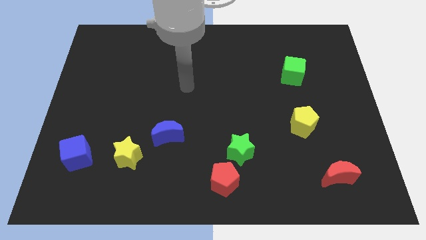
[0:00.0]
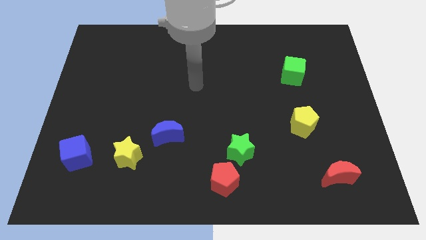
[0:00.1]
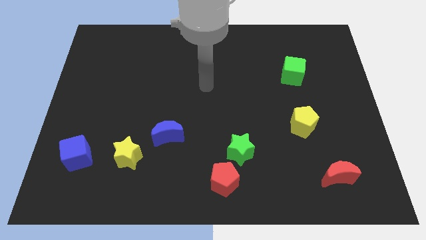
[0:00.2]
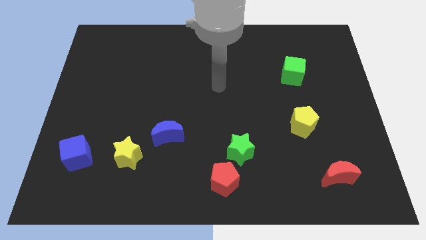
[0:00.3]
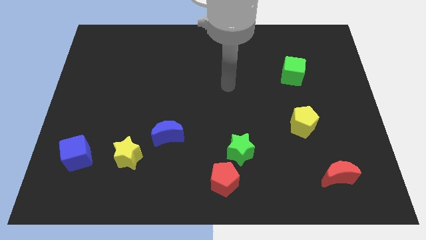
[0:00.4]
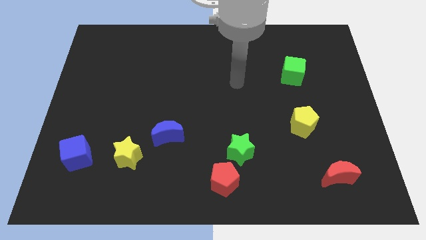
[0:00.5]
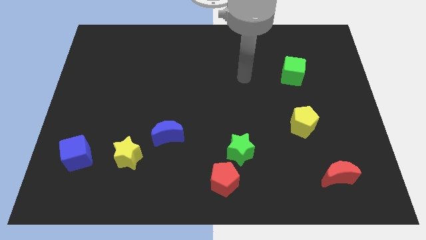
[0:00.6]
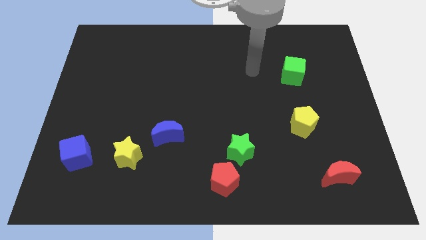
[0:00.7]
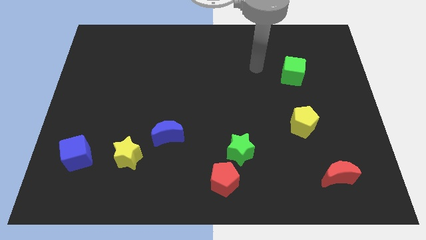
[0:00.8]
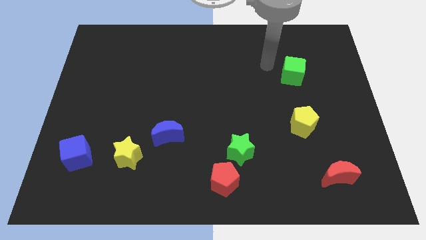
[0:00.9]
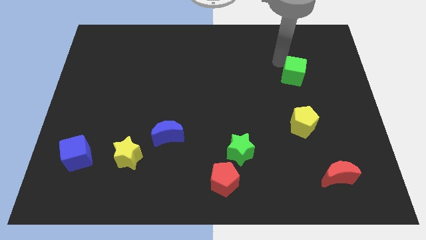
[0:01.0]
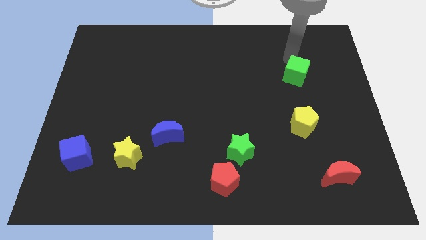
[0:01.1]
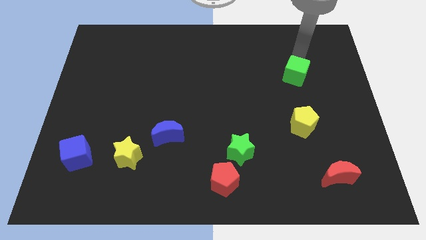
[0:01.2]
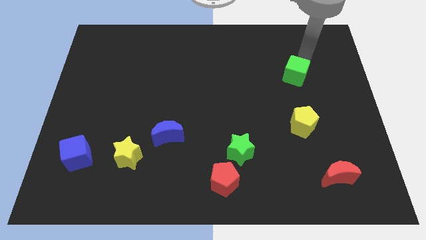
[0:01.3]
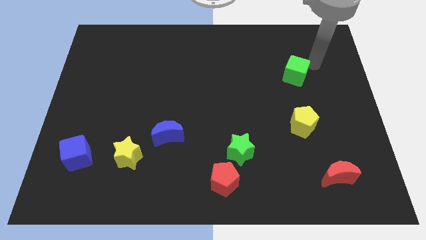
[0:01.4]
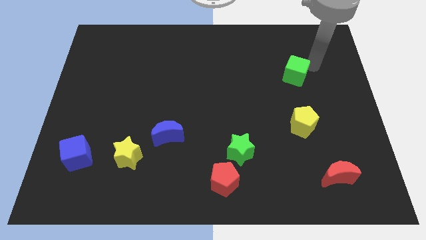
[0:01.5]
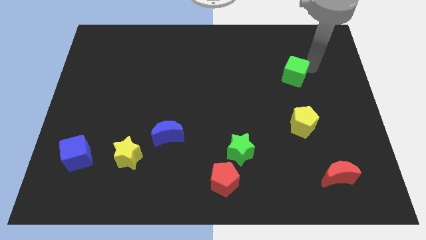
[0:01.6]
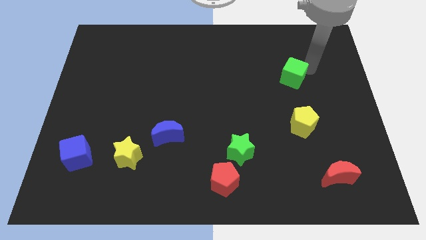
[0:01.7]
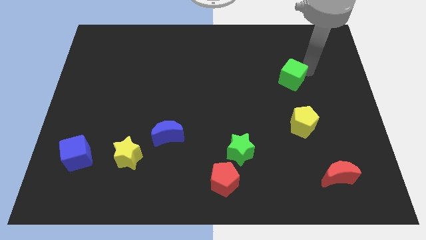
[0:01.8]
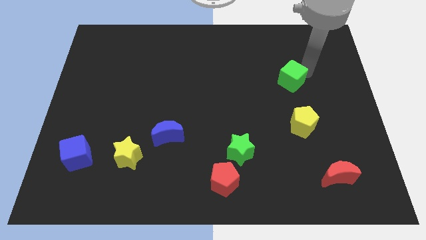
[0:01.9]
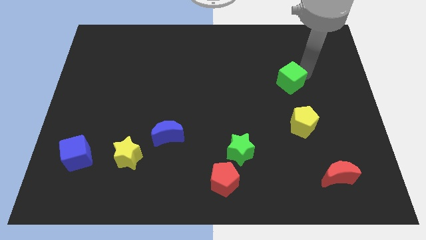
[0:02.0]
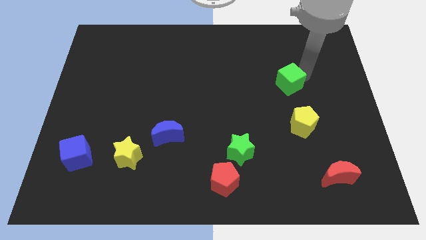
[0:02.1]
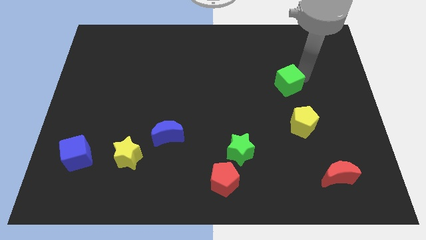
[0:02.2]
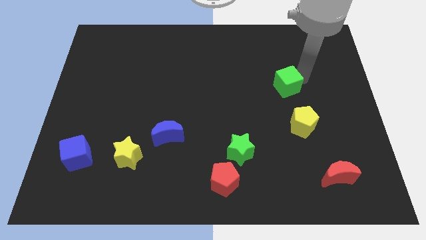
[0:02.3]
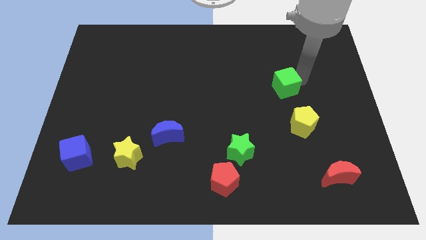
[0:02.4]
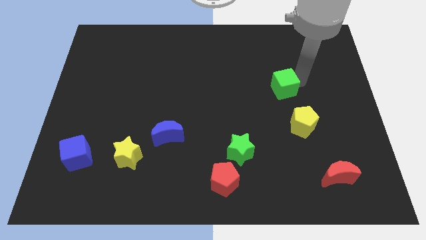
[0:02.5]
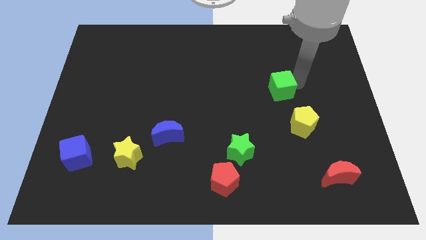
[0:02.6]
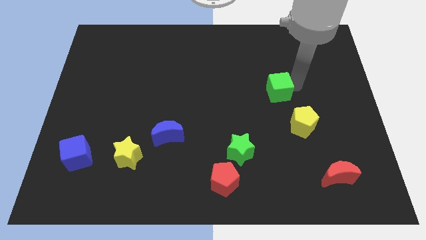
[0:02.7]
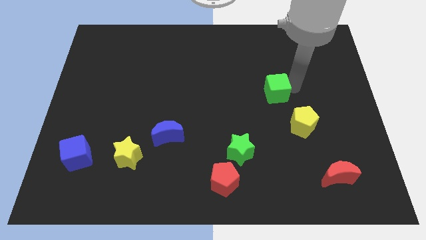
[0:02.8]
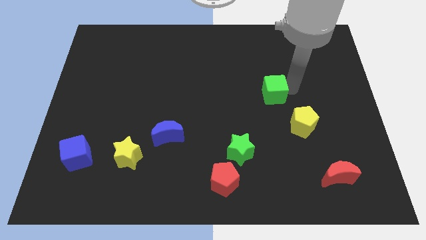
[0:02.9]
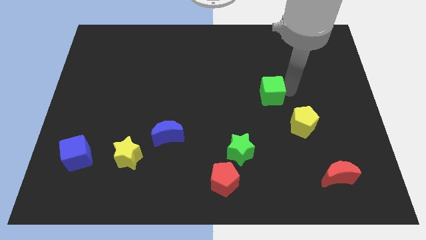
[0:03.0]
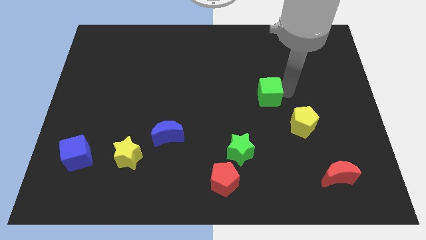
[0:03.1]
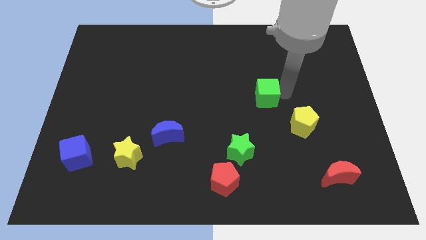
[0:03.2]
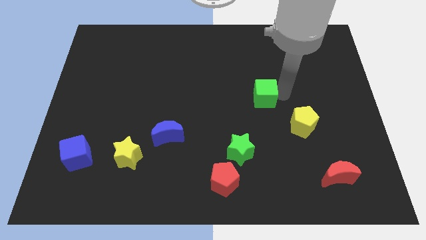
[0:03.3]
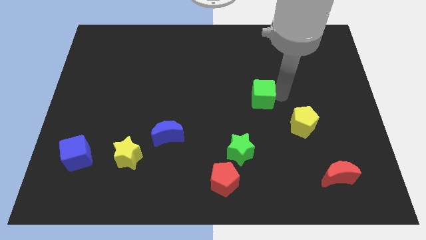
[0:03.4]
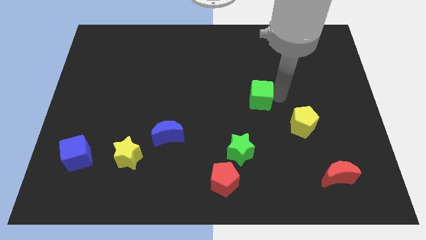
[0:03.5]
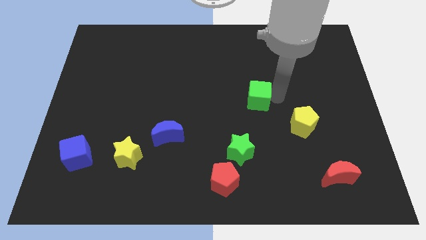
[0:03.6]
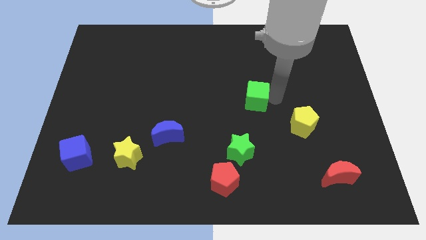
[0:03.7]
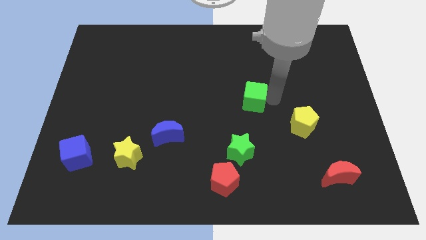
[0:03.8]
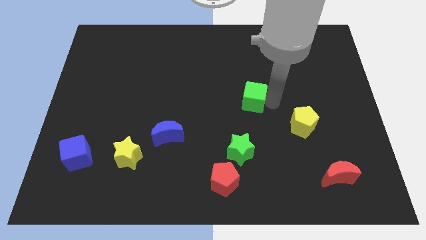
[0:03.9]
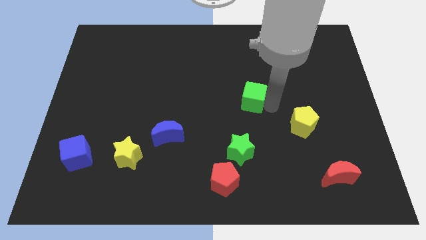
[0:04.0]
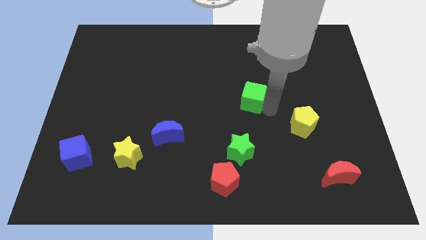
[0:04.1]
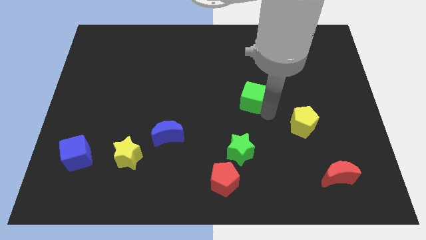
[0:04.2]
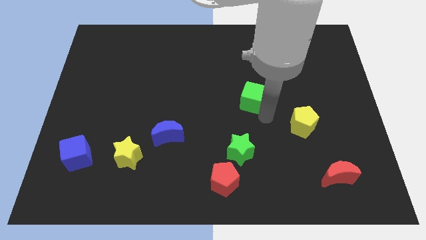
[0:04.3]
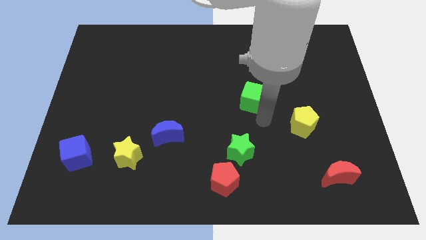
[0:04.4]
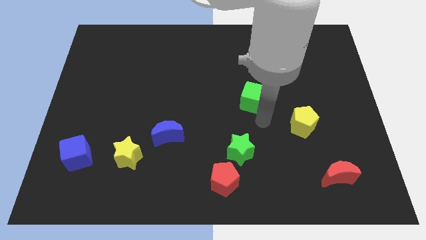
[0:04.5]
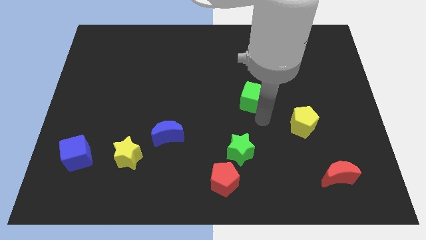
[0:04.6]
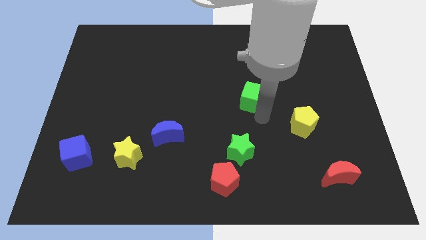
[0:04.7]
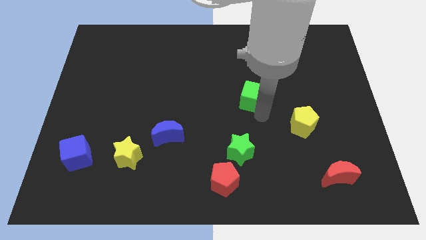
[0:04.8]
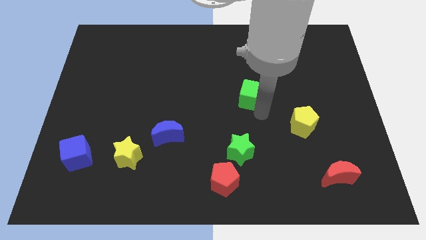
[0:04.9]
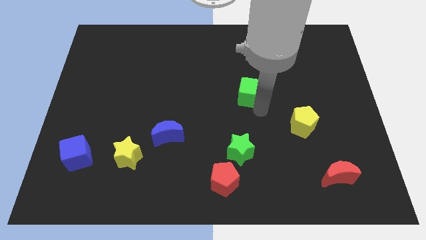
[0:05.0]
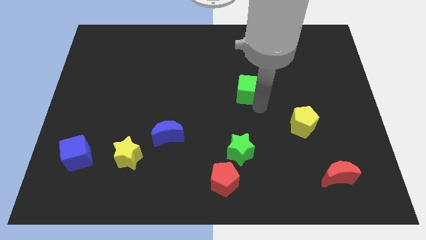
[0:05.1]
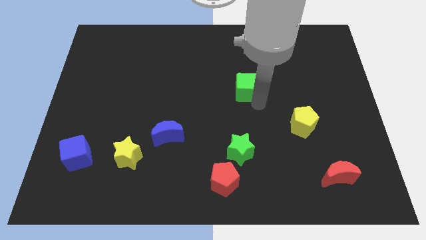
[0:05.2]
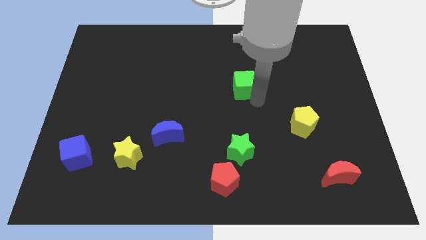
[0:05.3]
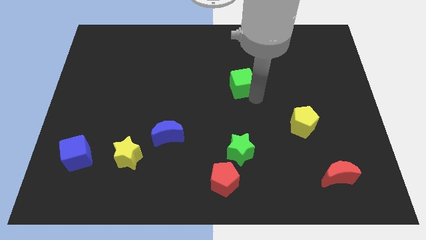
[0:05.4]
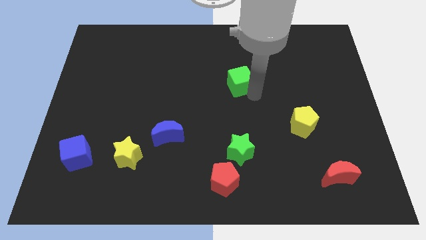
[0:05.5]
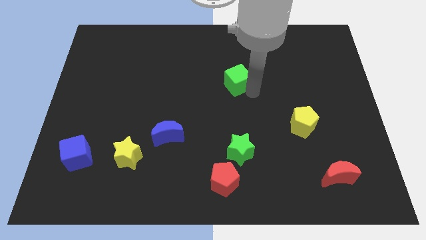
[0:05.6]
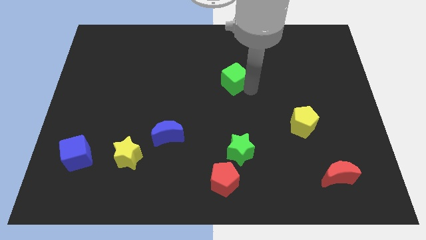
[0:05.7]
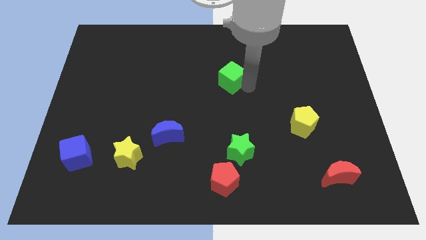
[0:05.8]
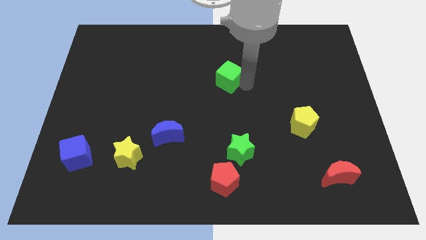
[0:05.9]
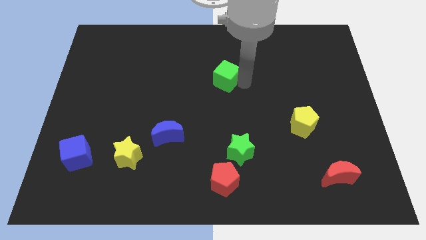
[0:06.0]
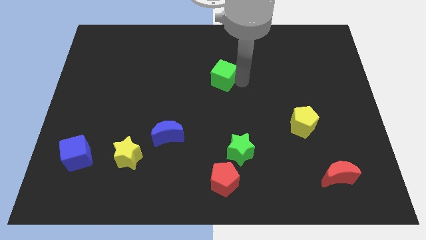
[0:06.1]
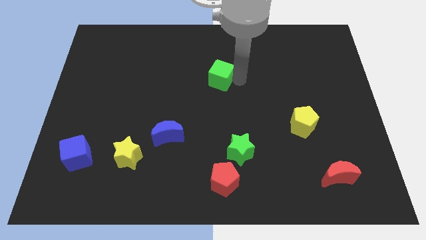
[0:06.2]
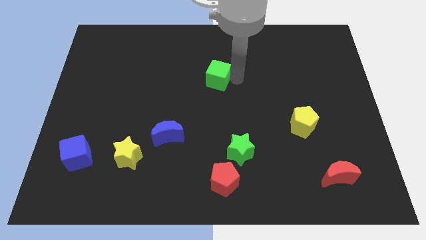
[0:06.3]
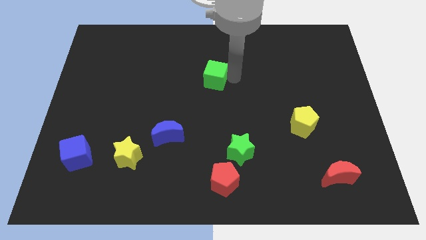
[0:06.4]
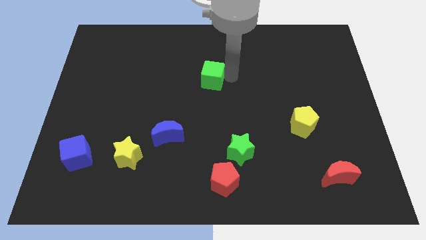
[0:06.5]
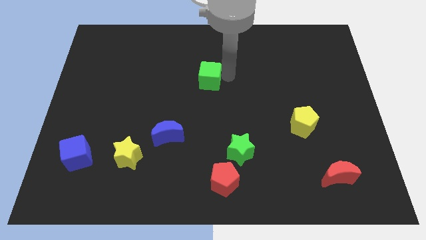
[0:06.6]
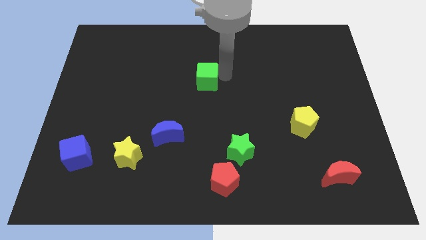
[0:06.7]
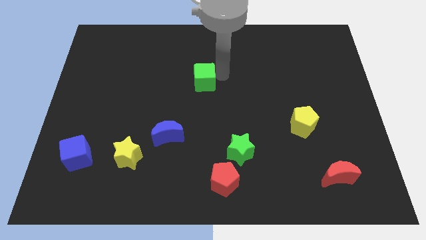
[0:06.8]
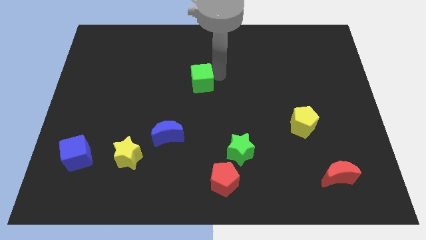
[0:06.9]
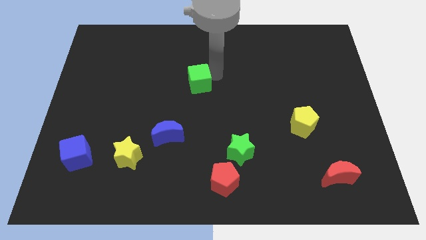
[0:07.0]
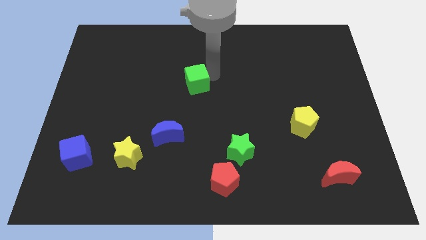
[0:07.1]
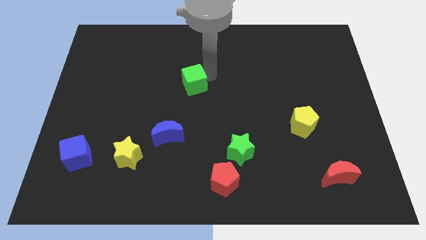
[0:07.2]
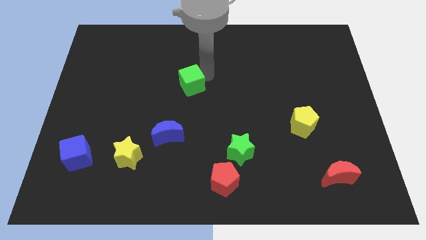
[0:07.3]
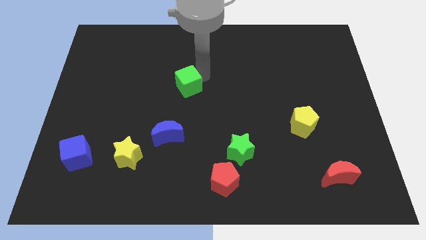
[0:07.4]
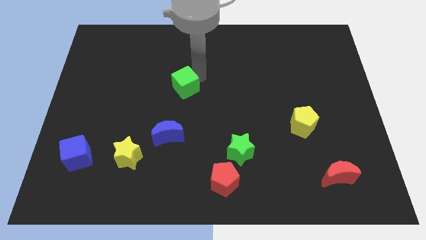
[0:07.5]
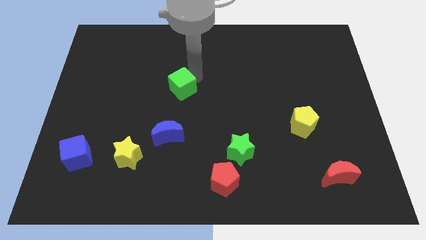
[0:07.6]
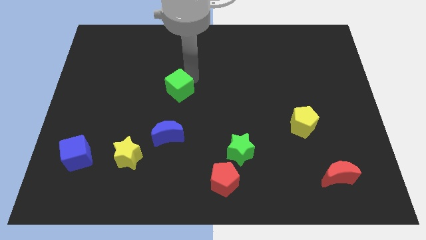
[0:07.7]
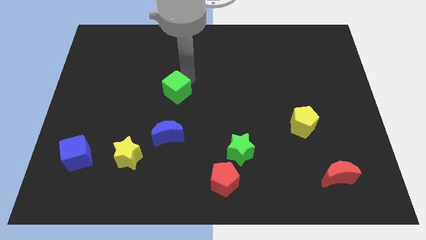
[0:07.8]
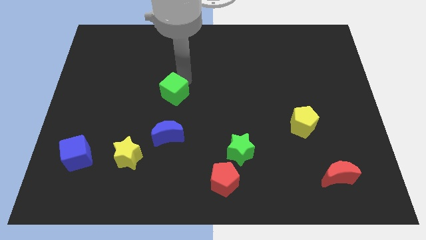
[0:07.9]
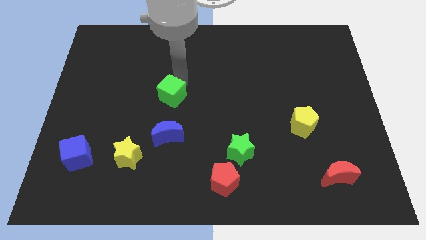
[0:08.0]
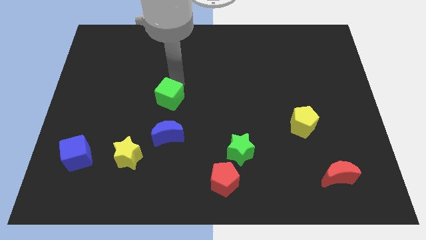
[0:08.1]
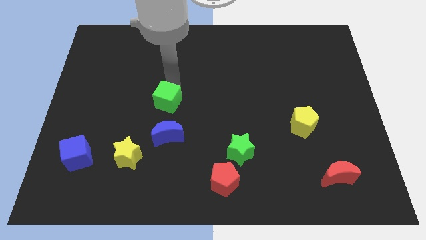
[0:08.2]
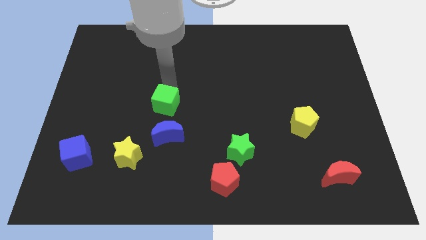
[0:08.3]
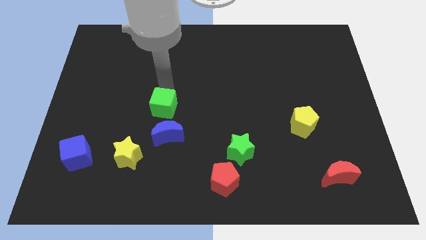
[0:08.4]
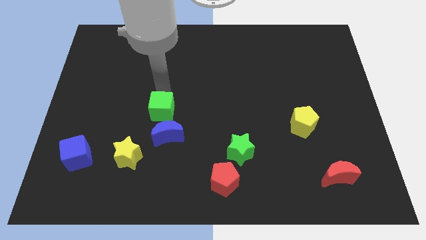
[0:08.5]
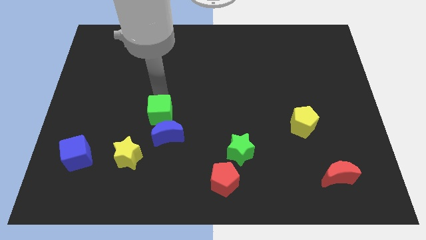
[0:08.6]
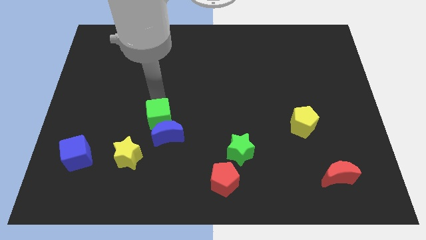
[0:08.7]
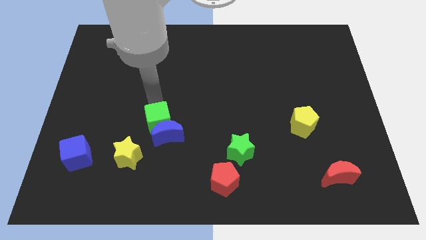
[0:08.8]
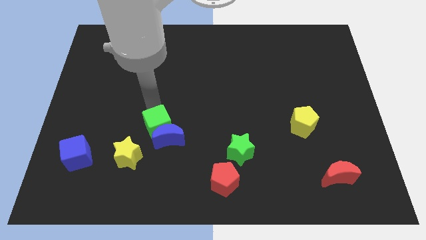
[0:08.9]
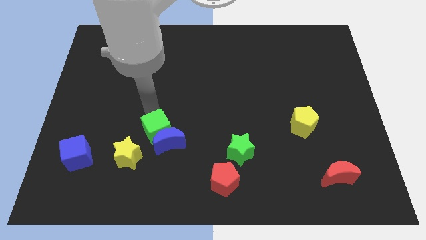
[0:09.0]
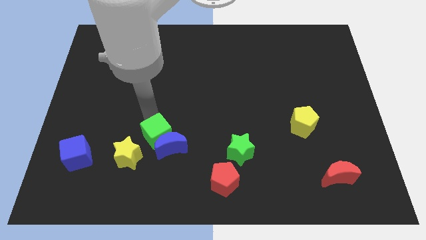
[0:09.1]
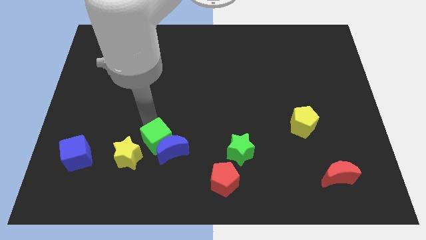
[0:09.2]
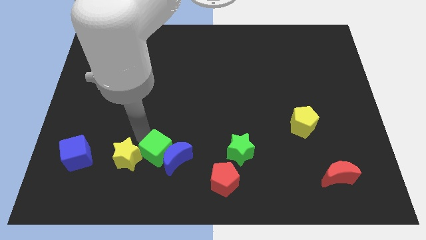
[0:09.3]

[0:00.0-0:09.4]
slide the green cube towards the yellow star
